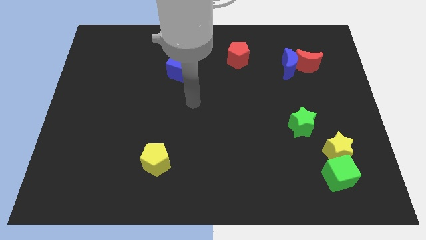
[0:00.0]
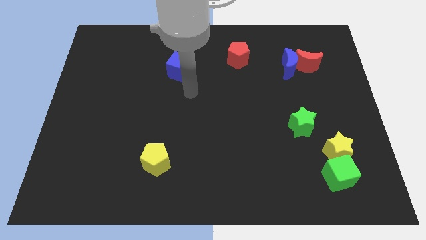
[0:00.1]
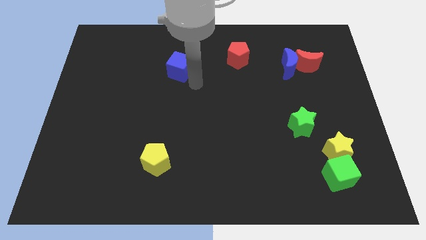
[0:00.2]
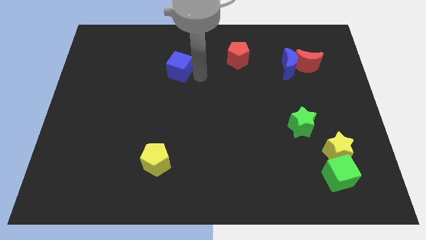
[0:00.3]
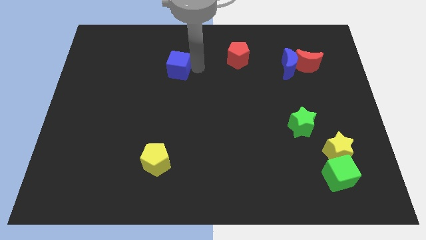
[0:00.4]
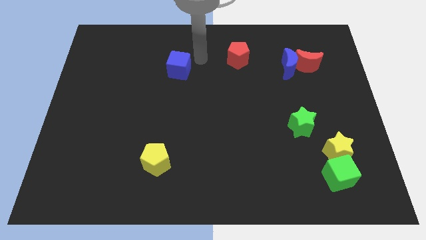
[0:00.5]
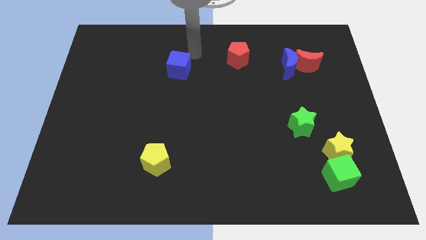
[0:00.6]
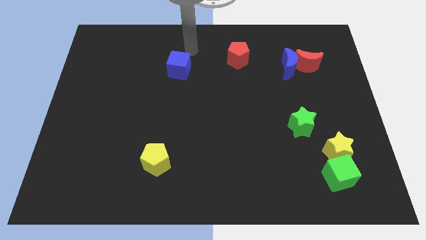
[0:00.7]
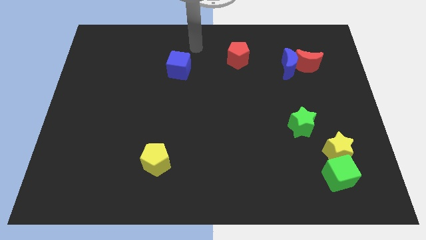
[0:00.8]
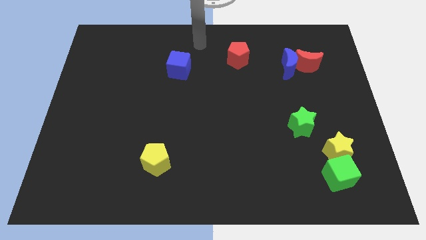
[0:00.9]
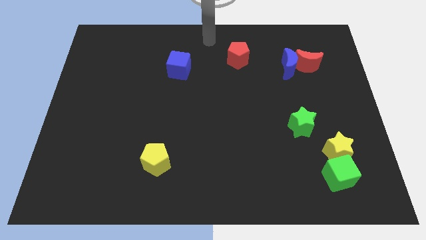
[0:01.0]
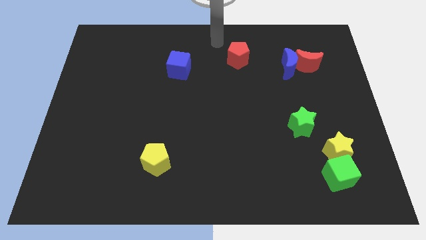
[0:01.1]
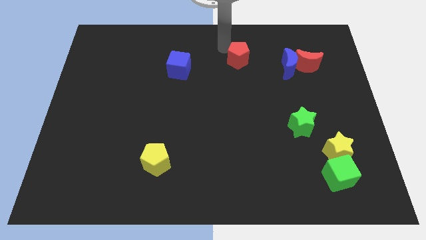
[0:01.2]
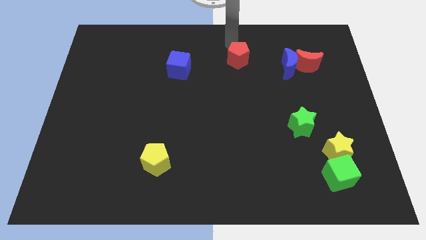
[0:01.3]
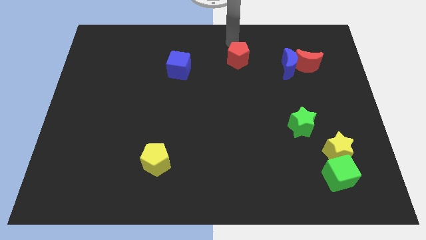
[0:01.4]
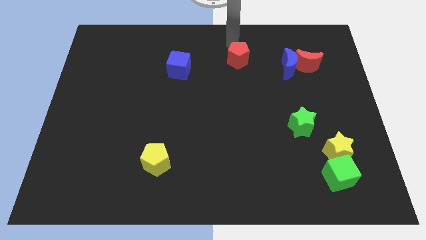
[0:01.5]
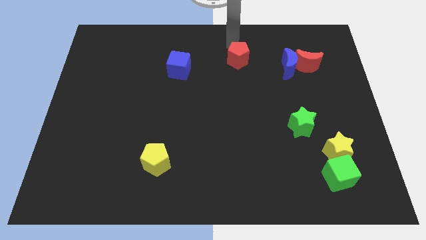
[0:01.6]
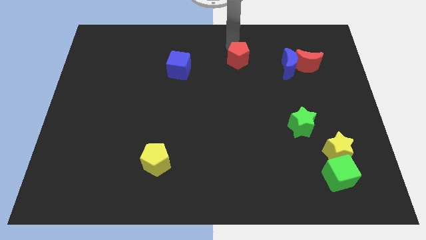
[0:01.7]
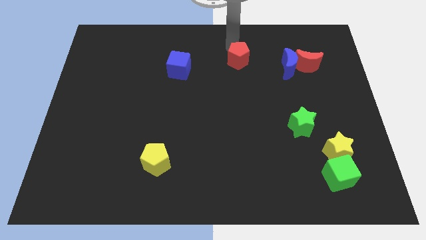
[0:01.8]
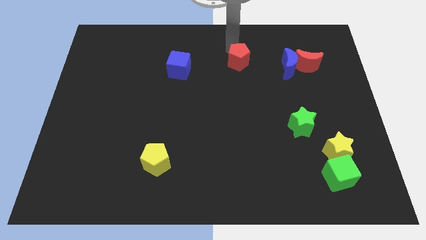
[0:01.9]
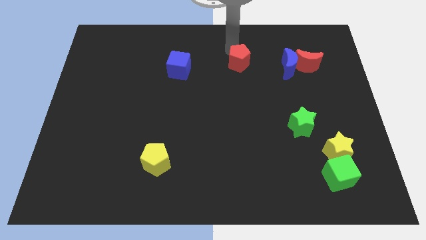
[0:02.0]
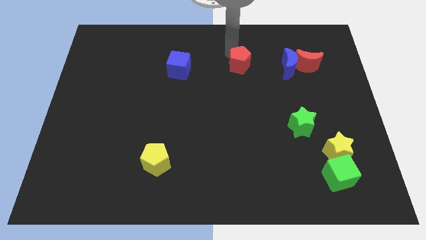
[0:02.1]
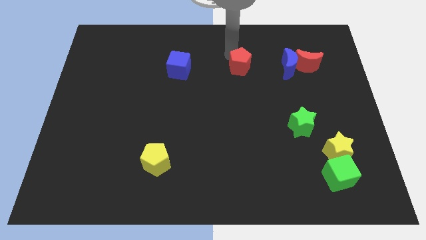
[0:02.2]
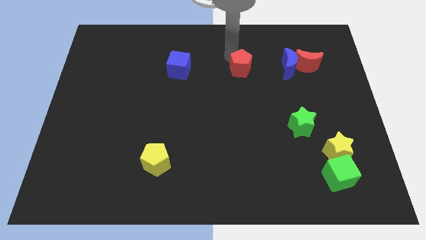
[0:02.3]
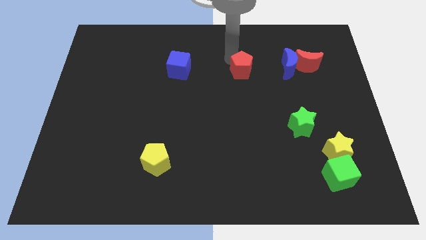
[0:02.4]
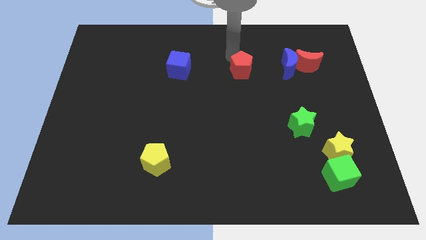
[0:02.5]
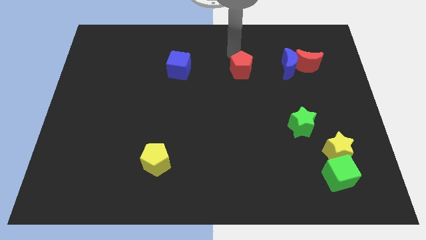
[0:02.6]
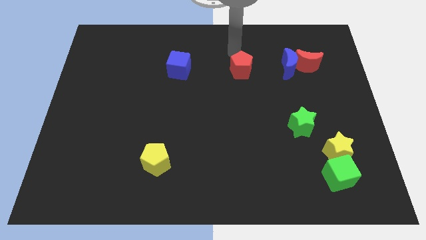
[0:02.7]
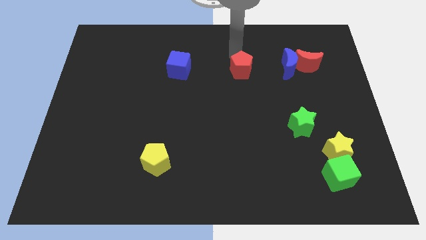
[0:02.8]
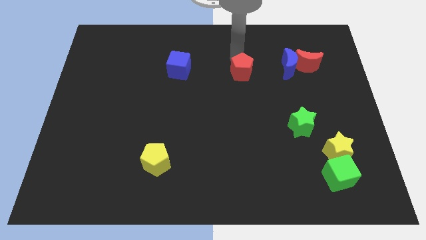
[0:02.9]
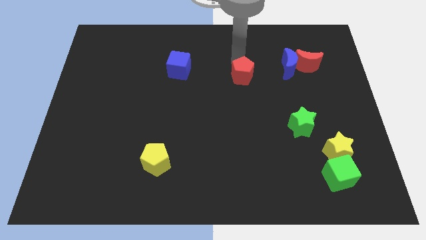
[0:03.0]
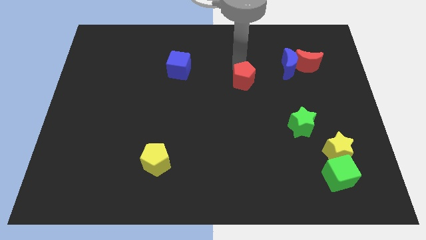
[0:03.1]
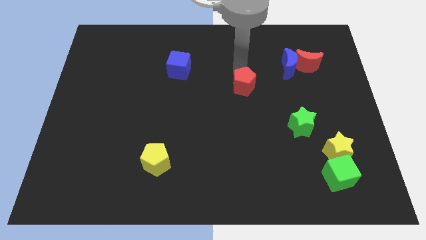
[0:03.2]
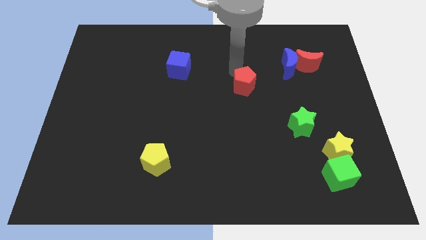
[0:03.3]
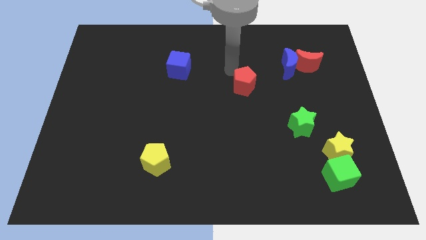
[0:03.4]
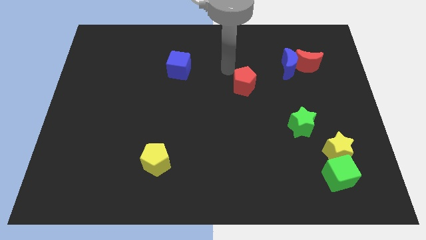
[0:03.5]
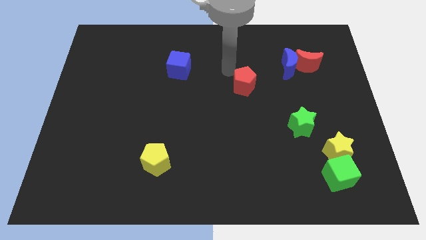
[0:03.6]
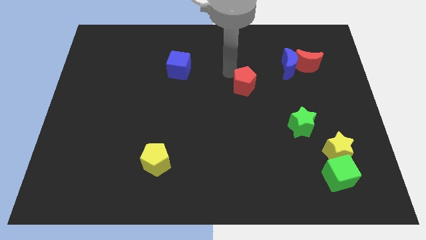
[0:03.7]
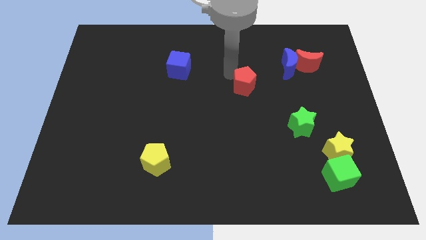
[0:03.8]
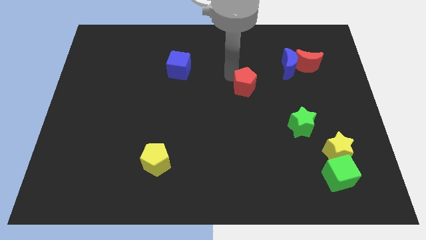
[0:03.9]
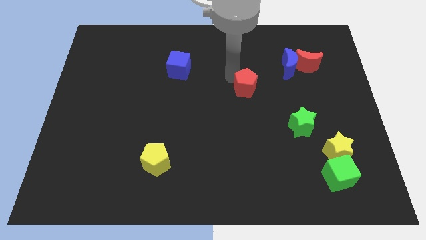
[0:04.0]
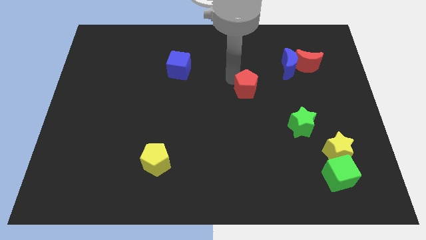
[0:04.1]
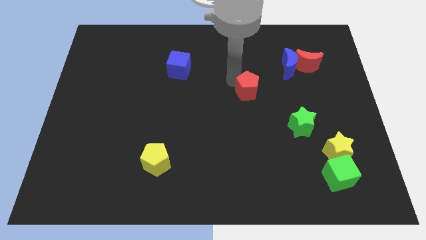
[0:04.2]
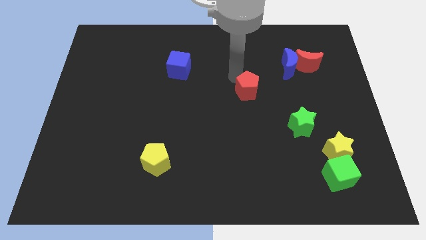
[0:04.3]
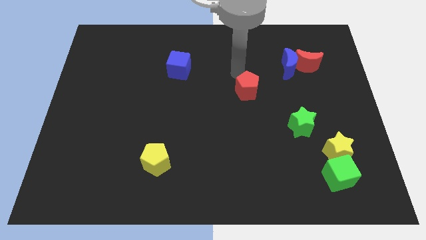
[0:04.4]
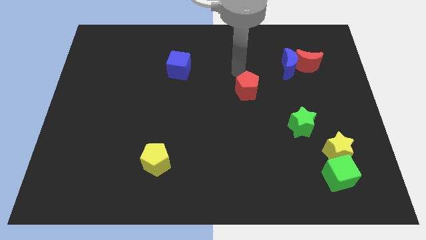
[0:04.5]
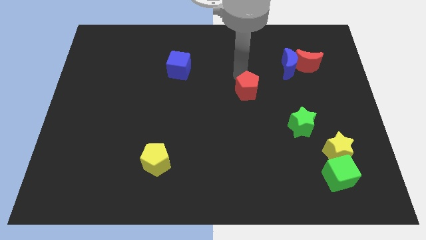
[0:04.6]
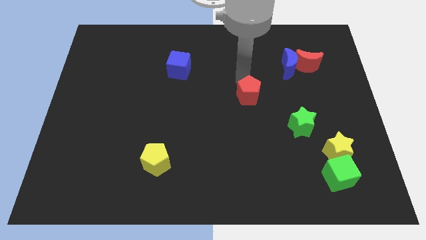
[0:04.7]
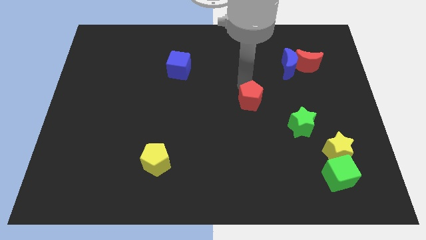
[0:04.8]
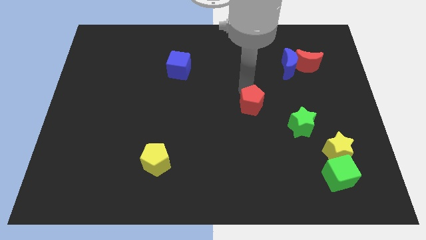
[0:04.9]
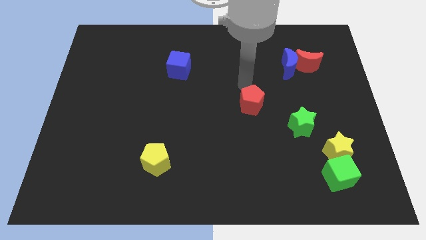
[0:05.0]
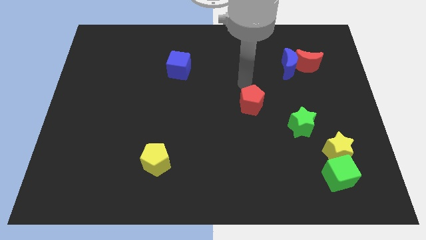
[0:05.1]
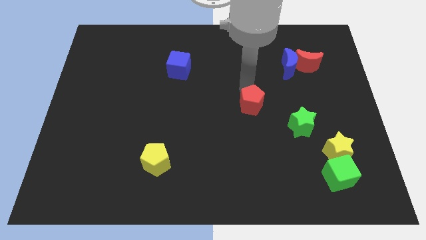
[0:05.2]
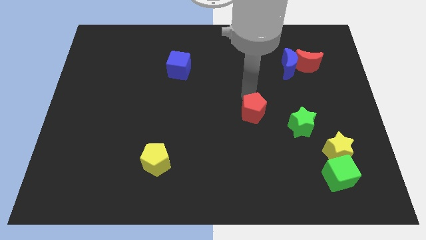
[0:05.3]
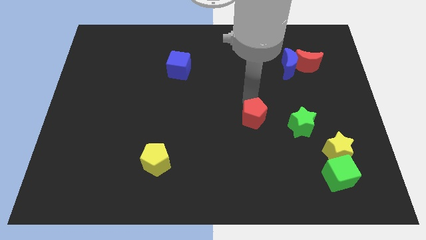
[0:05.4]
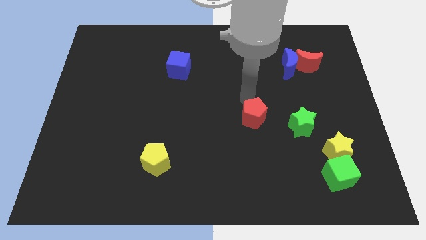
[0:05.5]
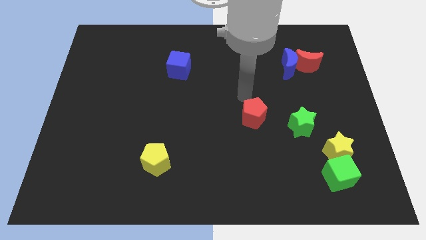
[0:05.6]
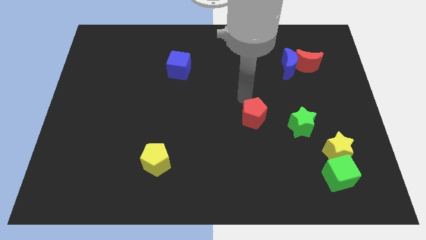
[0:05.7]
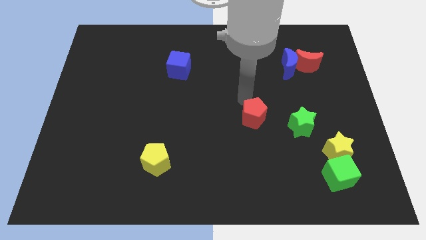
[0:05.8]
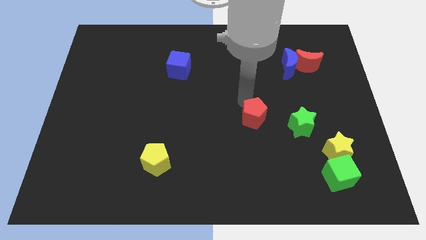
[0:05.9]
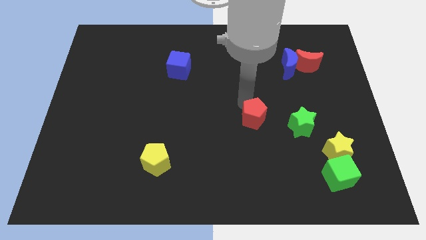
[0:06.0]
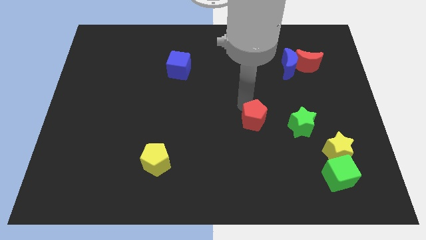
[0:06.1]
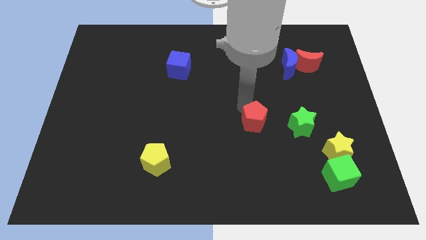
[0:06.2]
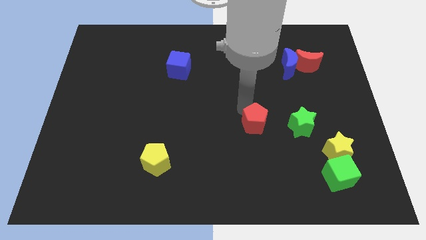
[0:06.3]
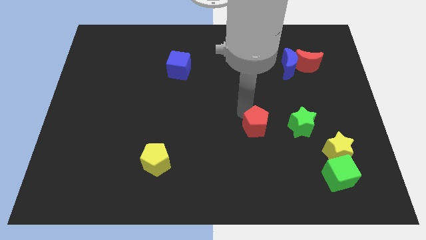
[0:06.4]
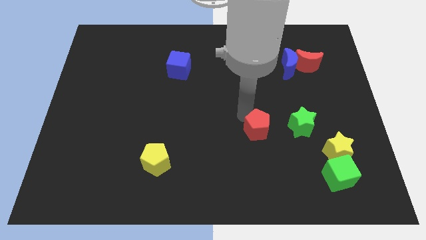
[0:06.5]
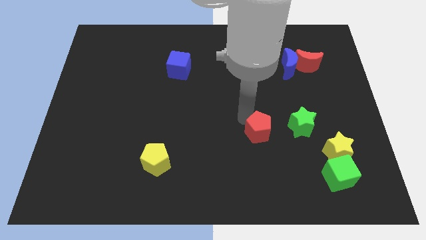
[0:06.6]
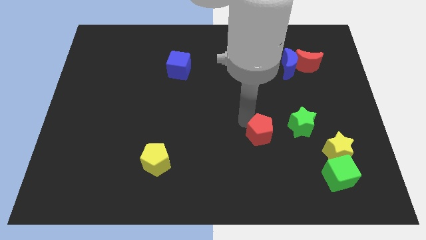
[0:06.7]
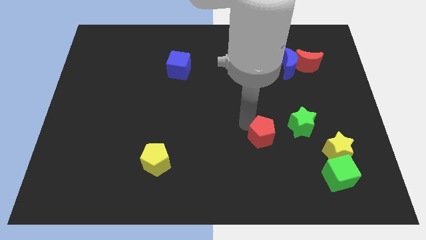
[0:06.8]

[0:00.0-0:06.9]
move the red pentagon diagonally down and to the left of the green star

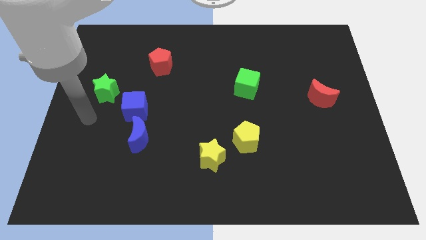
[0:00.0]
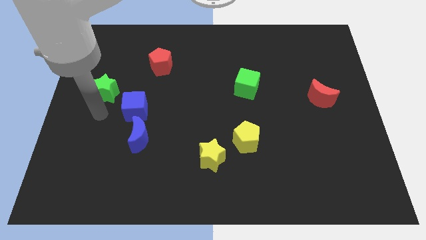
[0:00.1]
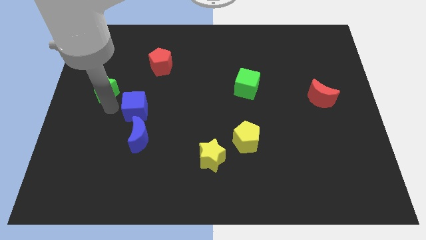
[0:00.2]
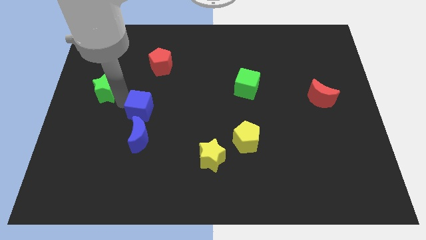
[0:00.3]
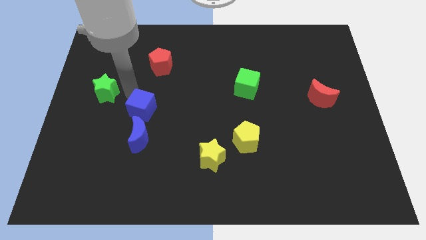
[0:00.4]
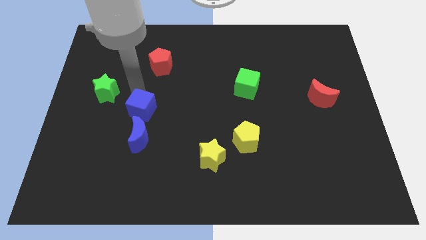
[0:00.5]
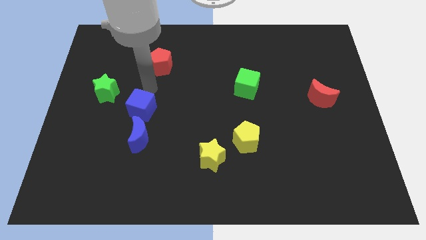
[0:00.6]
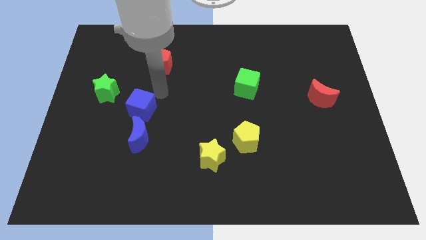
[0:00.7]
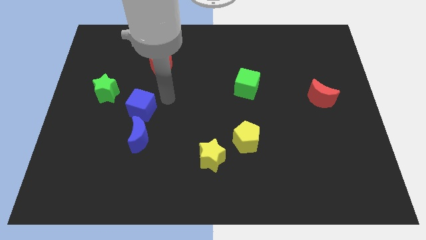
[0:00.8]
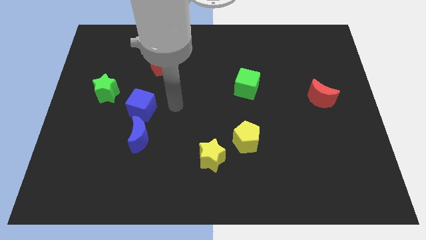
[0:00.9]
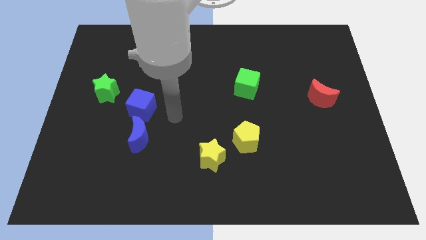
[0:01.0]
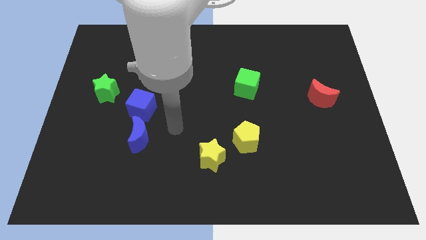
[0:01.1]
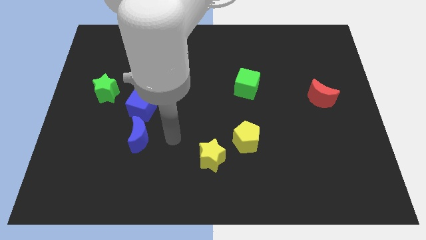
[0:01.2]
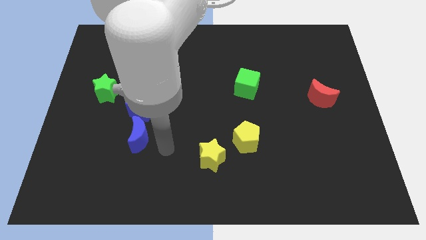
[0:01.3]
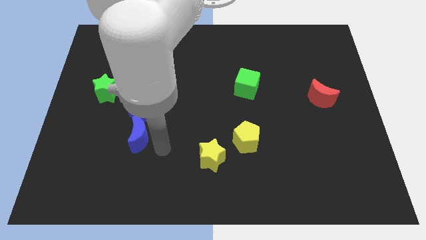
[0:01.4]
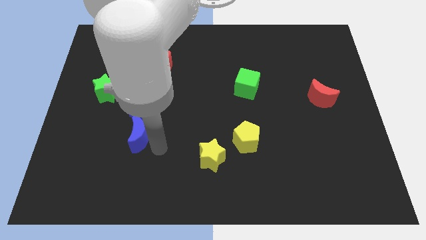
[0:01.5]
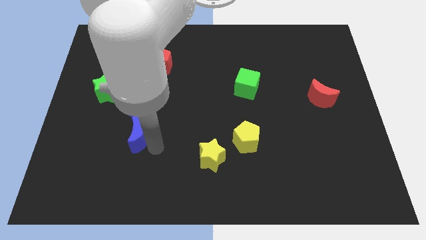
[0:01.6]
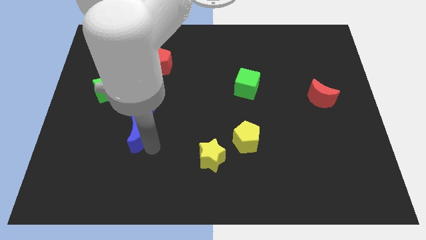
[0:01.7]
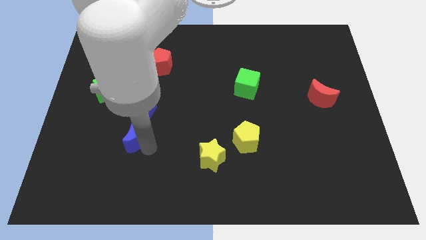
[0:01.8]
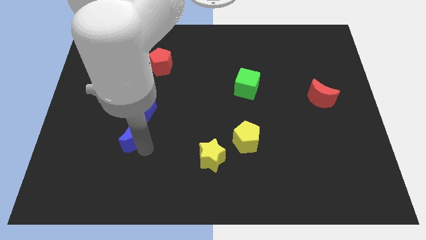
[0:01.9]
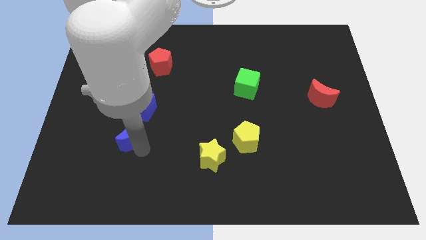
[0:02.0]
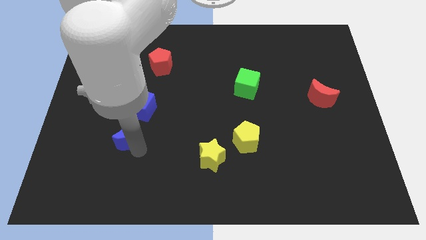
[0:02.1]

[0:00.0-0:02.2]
move the blue moon to the bottom left side of the blue cube
